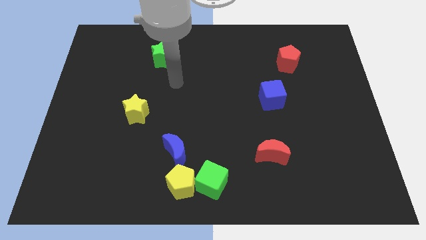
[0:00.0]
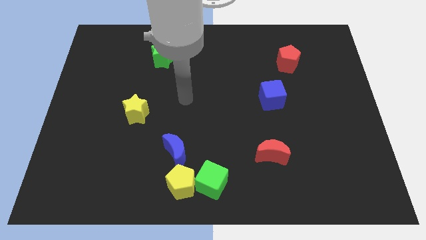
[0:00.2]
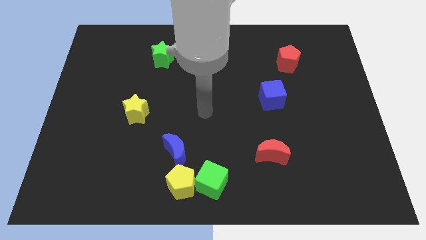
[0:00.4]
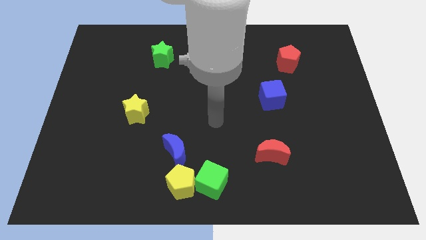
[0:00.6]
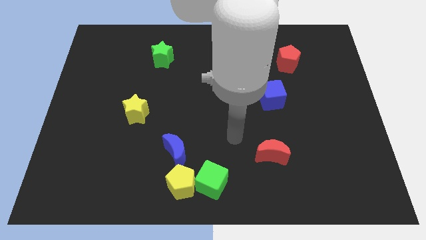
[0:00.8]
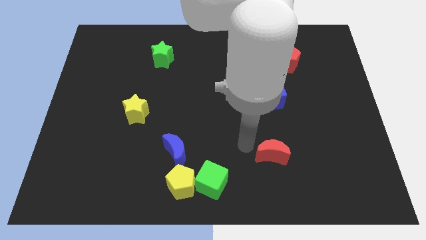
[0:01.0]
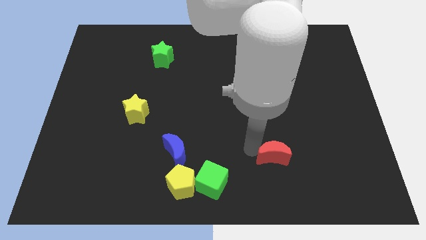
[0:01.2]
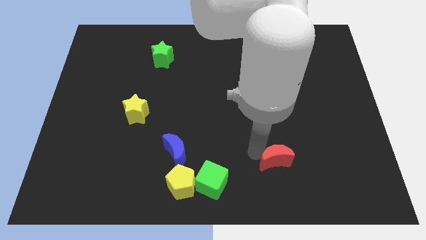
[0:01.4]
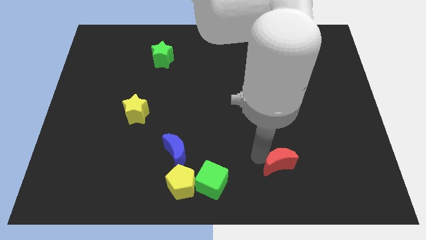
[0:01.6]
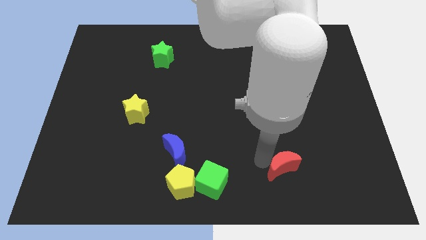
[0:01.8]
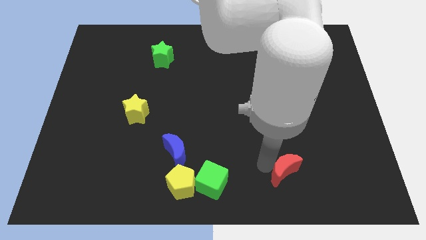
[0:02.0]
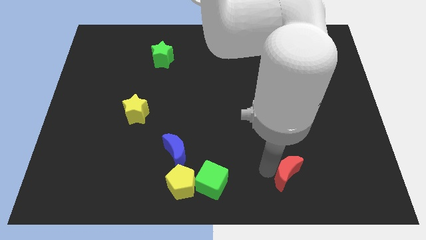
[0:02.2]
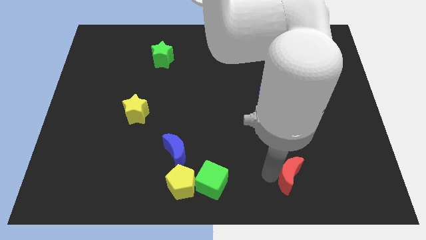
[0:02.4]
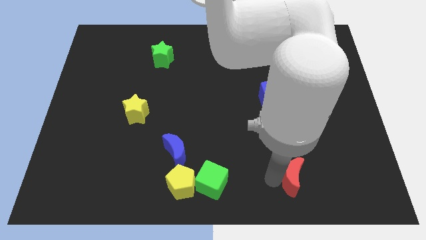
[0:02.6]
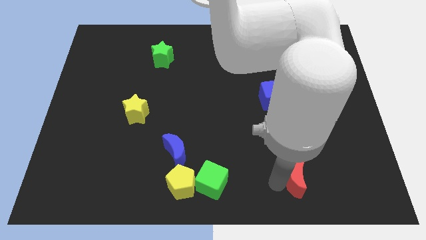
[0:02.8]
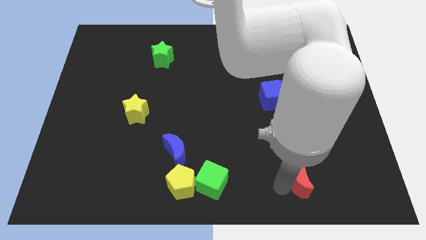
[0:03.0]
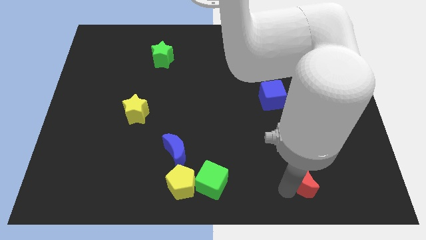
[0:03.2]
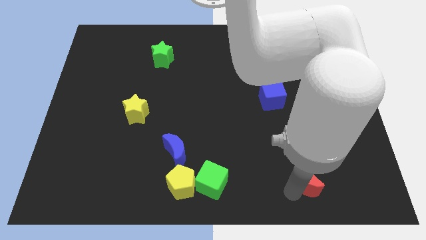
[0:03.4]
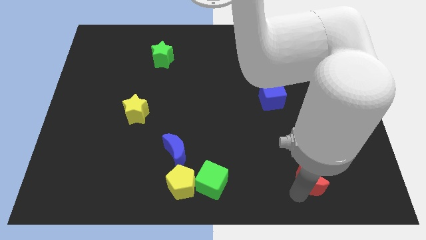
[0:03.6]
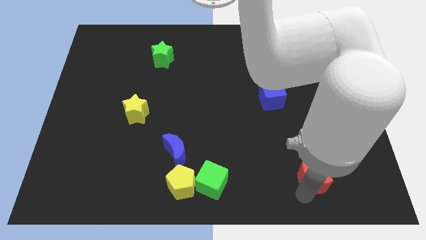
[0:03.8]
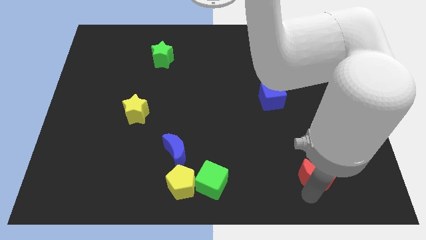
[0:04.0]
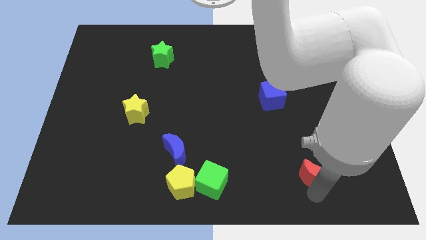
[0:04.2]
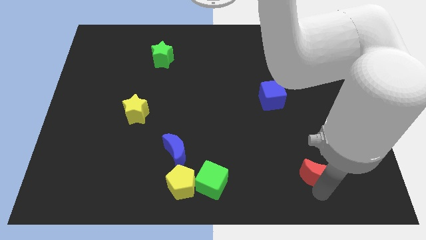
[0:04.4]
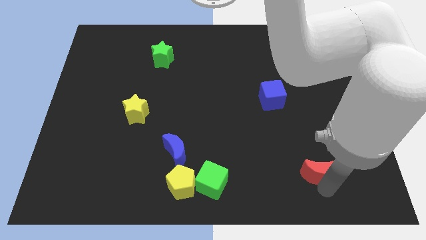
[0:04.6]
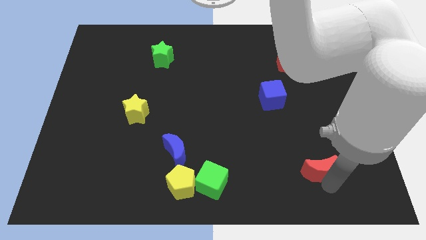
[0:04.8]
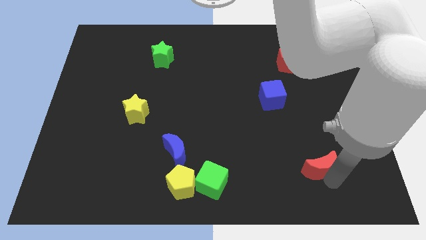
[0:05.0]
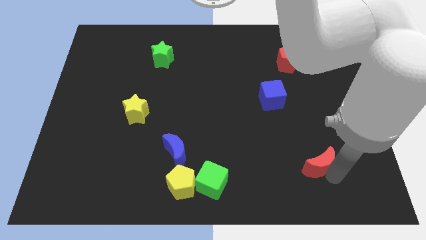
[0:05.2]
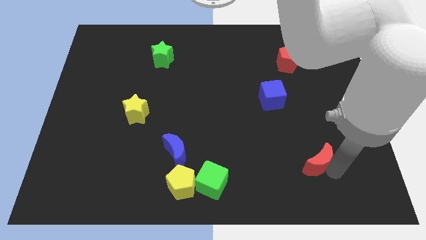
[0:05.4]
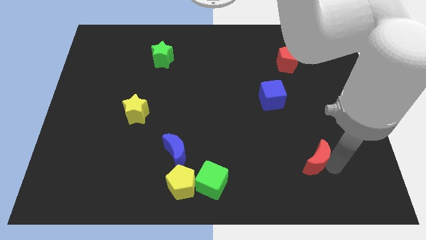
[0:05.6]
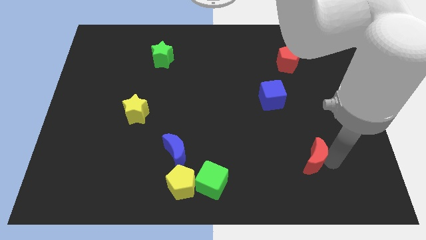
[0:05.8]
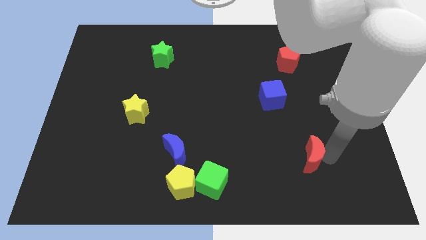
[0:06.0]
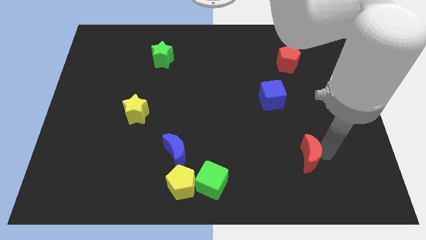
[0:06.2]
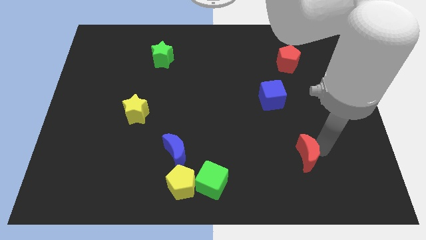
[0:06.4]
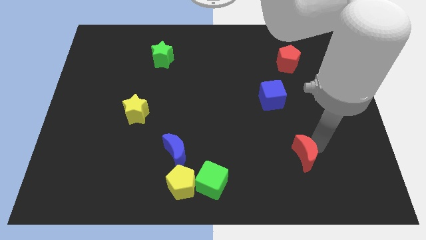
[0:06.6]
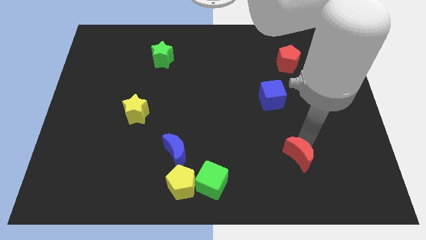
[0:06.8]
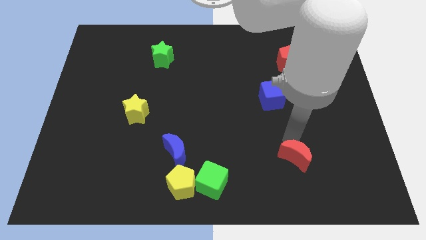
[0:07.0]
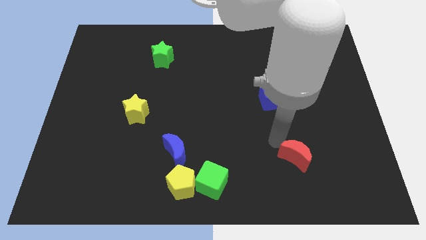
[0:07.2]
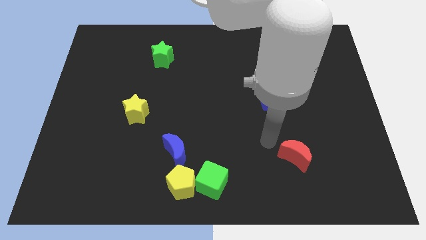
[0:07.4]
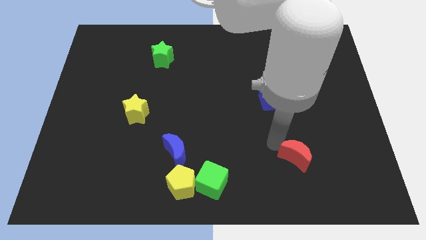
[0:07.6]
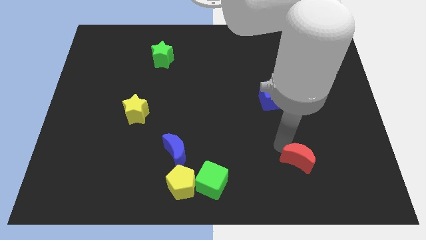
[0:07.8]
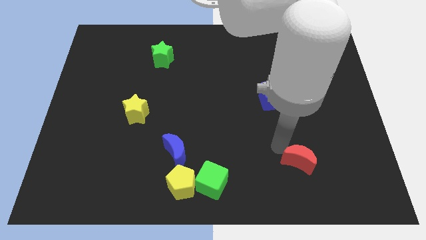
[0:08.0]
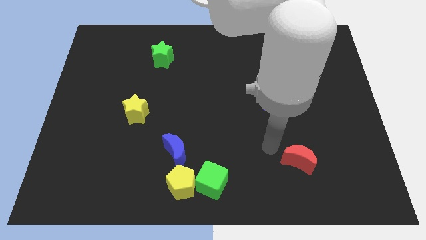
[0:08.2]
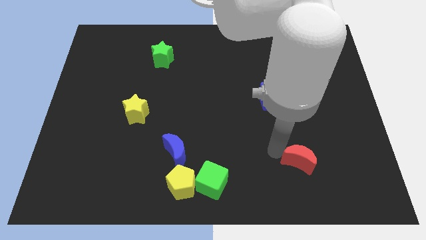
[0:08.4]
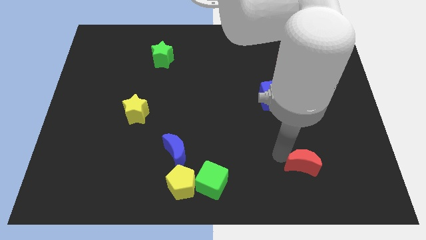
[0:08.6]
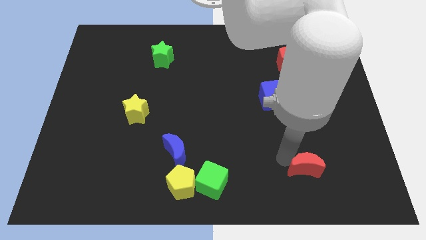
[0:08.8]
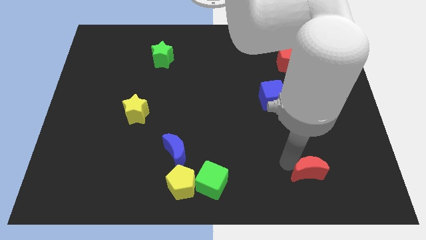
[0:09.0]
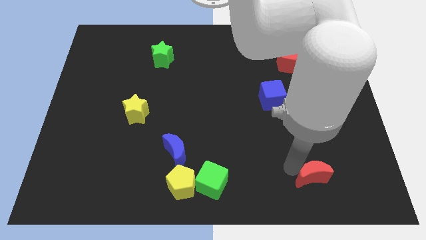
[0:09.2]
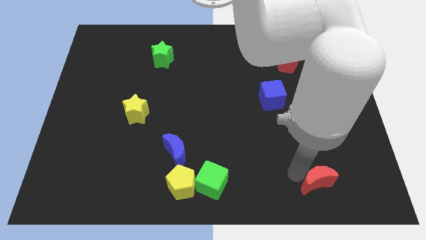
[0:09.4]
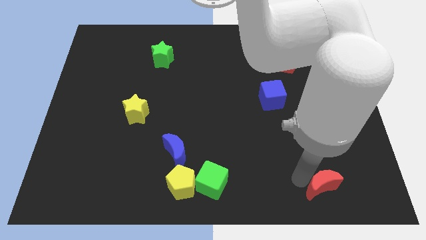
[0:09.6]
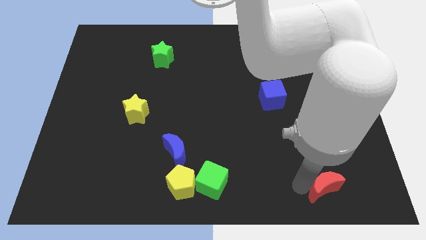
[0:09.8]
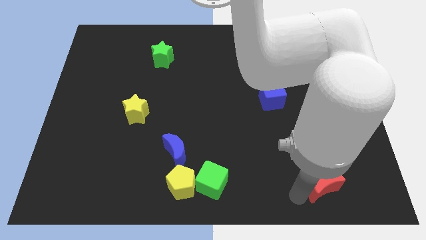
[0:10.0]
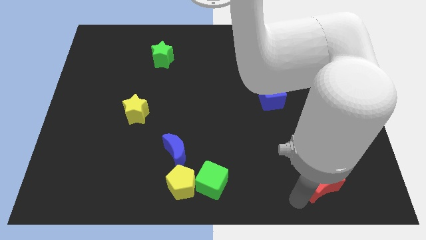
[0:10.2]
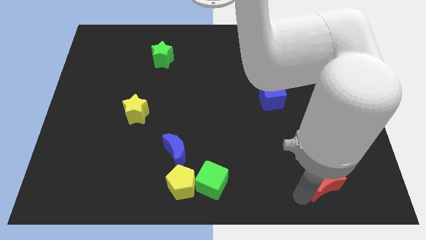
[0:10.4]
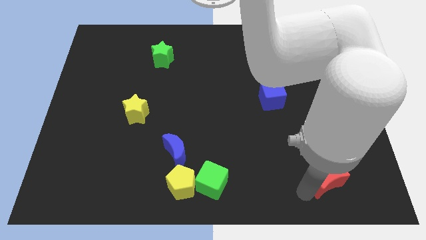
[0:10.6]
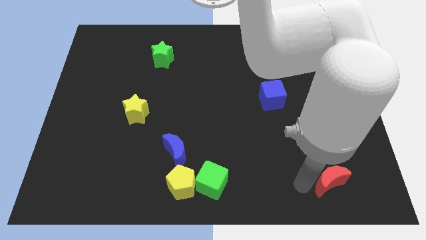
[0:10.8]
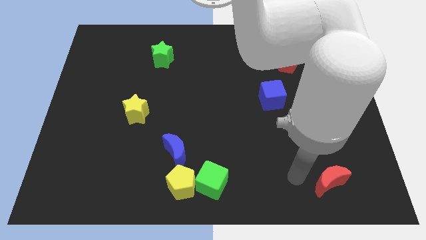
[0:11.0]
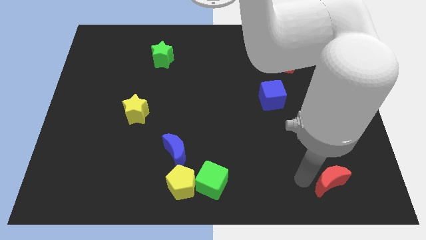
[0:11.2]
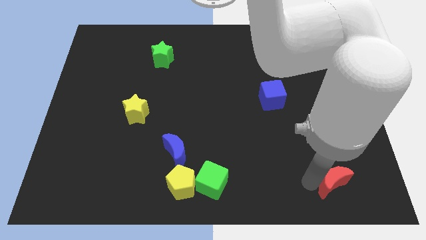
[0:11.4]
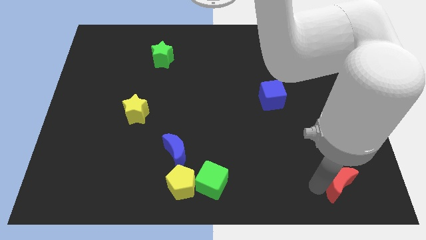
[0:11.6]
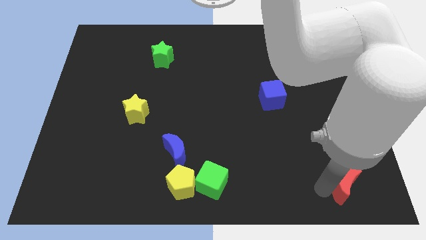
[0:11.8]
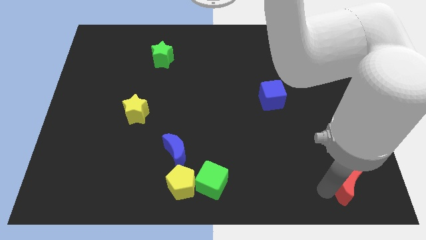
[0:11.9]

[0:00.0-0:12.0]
move the red moon to the bottom right

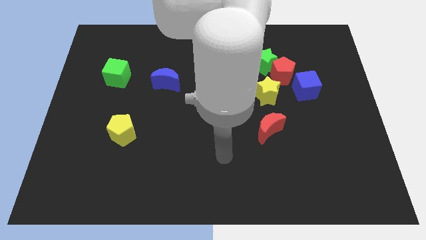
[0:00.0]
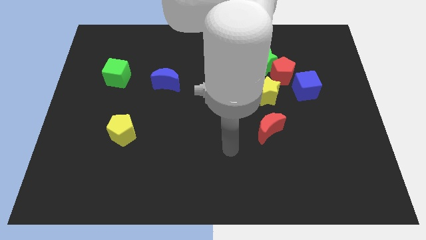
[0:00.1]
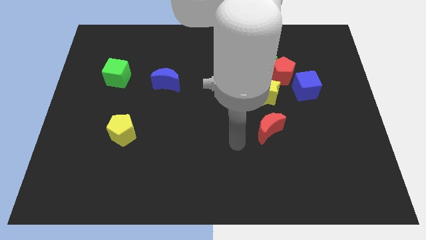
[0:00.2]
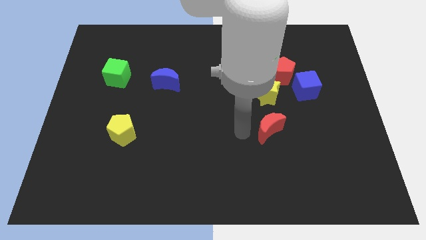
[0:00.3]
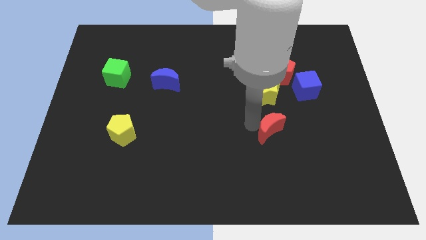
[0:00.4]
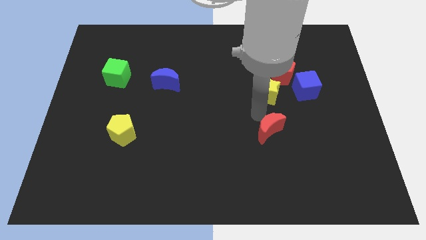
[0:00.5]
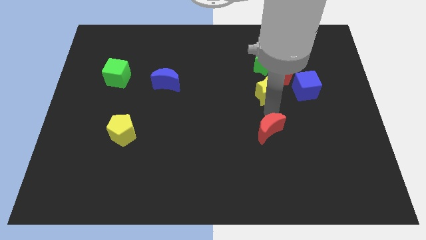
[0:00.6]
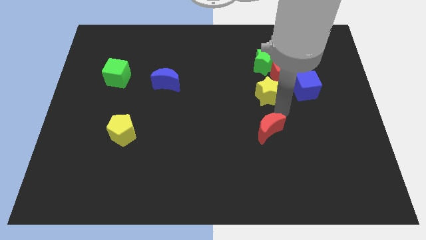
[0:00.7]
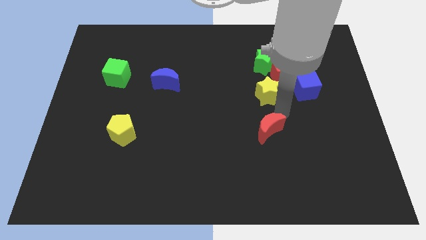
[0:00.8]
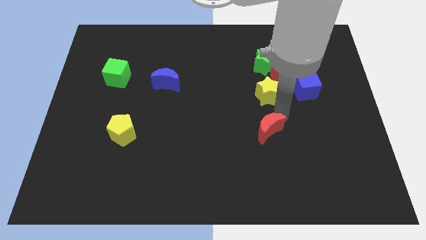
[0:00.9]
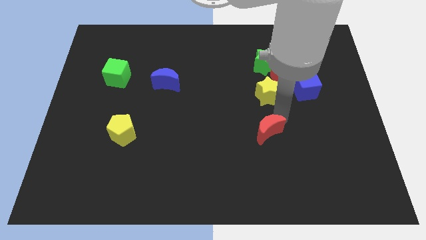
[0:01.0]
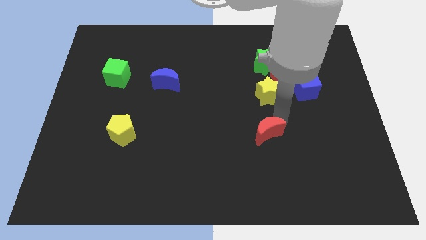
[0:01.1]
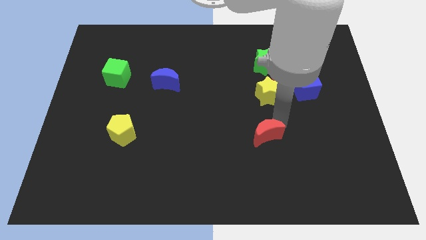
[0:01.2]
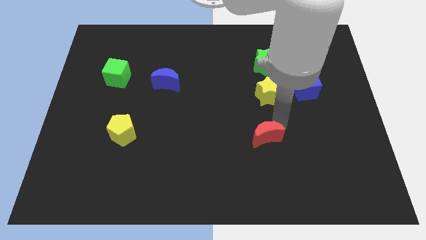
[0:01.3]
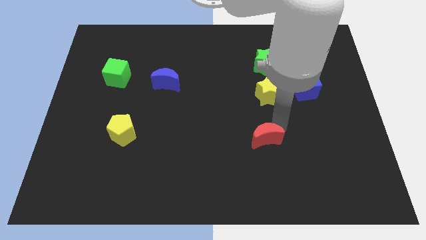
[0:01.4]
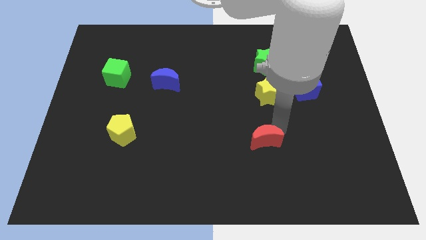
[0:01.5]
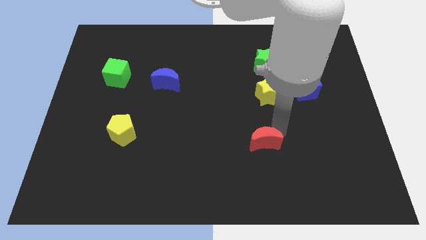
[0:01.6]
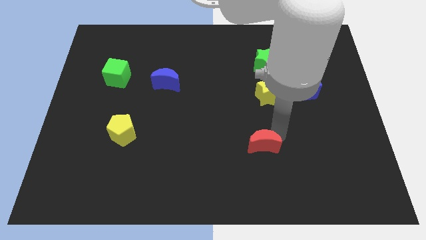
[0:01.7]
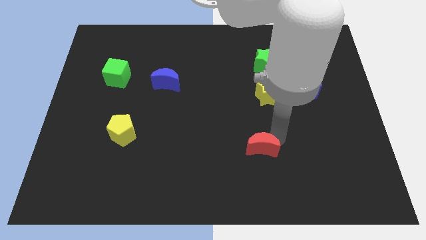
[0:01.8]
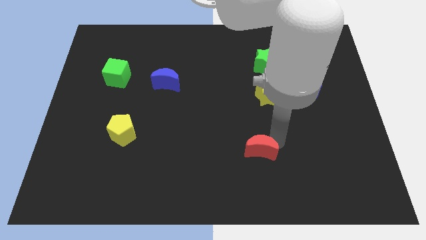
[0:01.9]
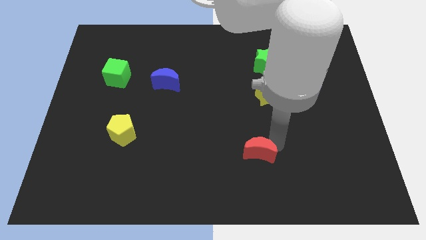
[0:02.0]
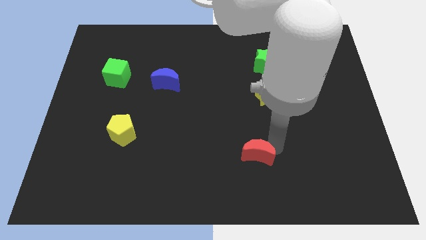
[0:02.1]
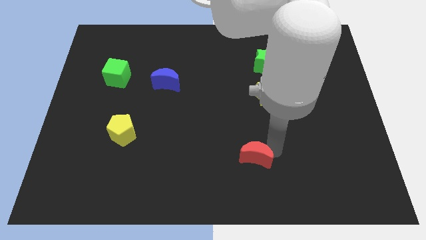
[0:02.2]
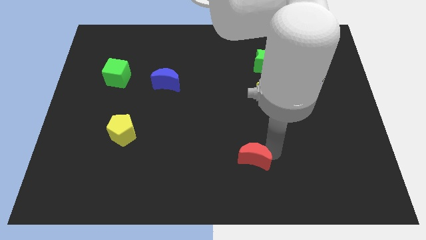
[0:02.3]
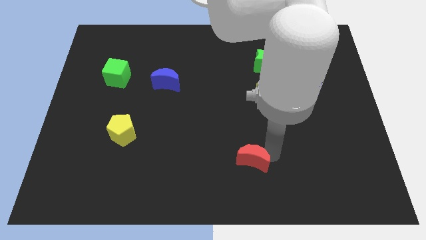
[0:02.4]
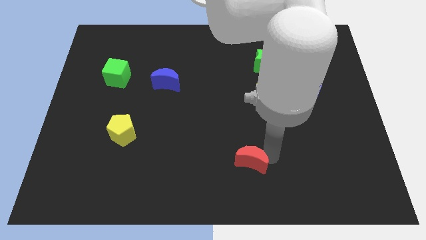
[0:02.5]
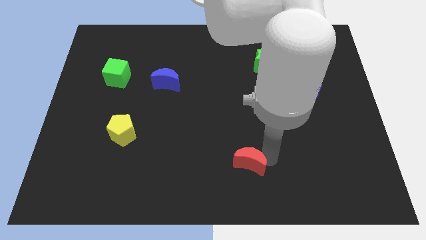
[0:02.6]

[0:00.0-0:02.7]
move the red moon to the bottom side
